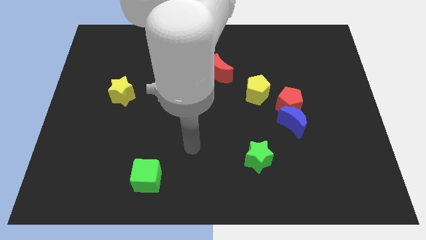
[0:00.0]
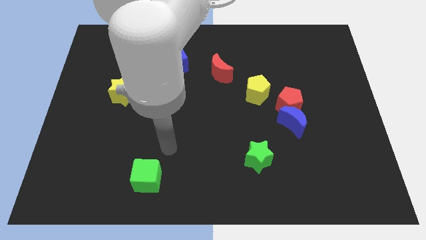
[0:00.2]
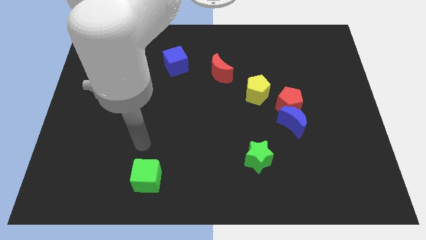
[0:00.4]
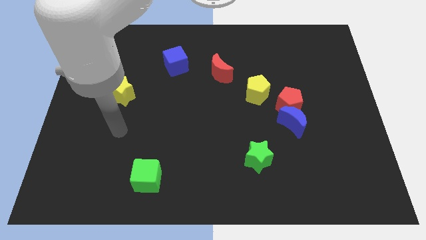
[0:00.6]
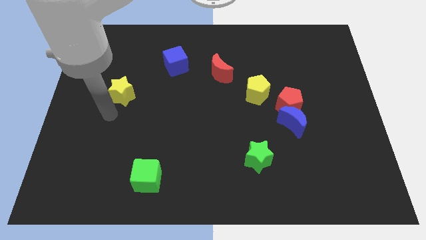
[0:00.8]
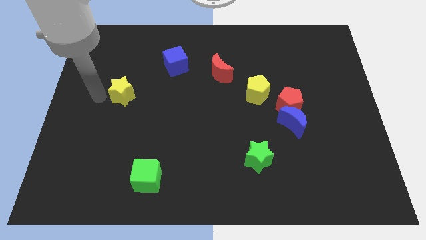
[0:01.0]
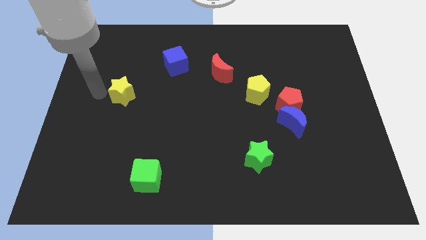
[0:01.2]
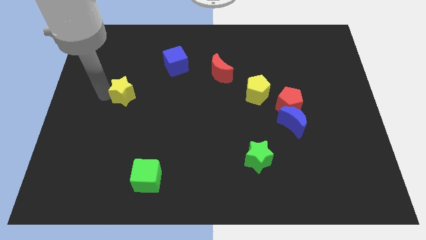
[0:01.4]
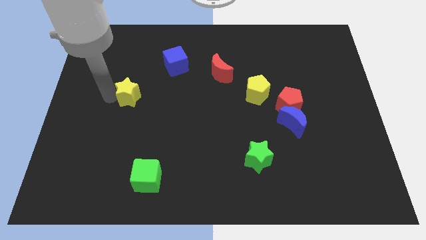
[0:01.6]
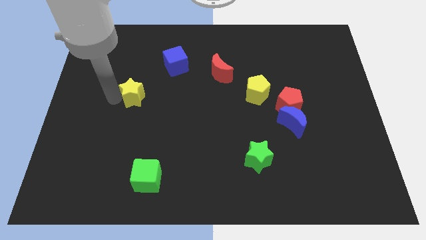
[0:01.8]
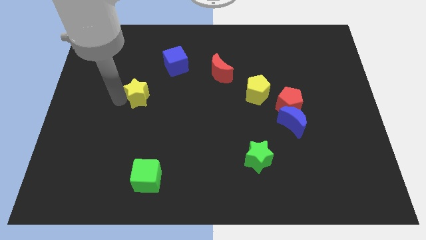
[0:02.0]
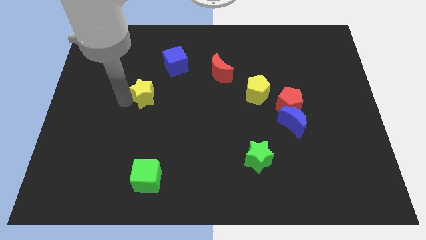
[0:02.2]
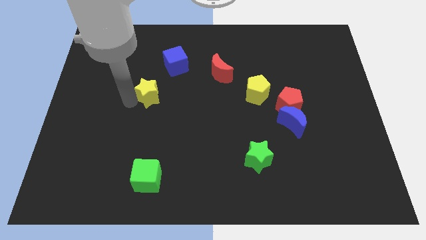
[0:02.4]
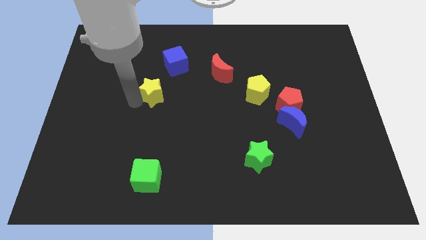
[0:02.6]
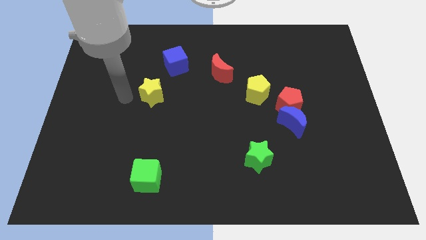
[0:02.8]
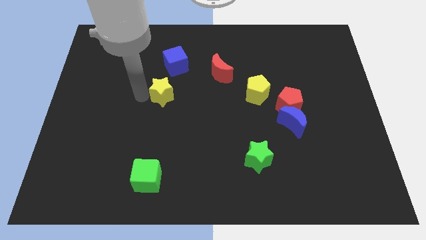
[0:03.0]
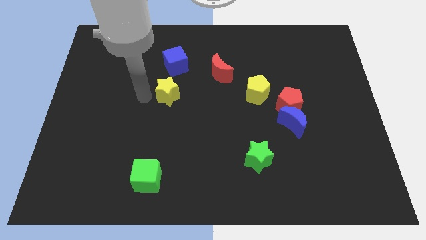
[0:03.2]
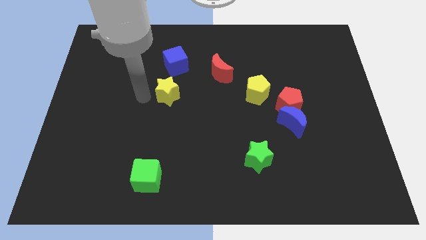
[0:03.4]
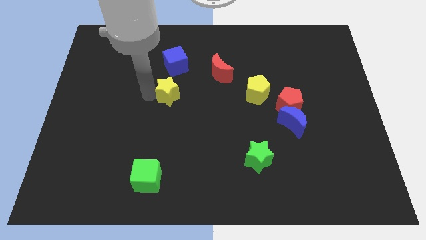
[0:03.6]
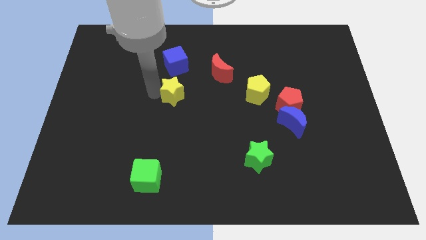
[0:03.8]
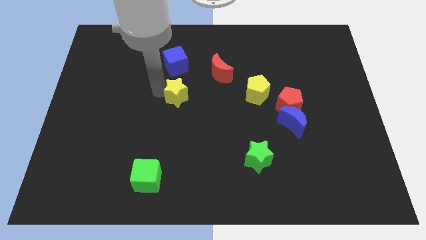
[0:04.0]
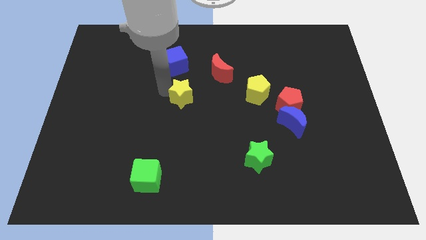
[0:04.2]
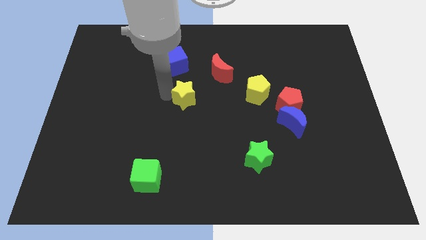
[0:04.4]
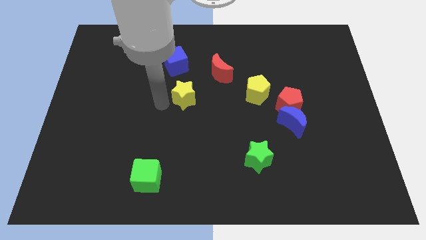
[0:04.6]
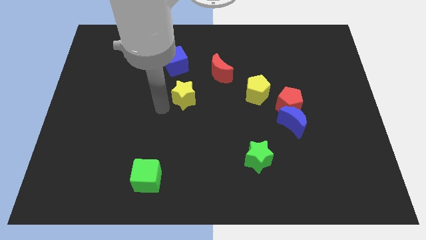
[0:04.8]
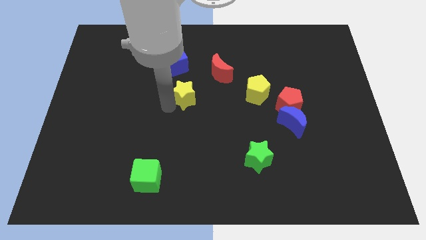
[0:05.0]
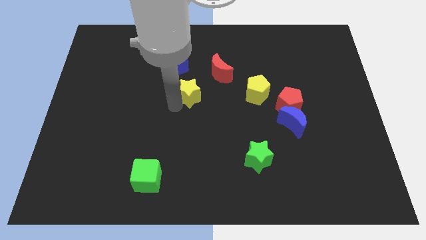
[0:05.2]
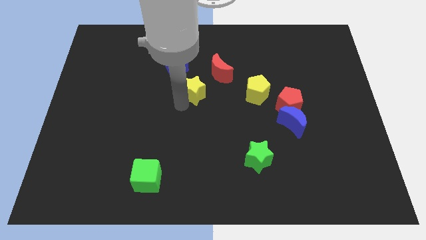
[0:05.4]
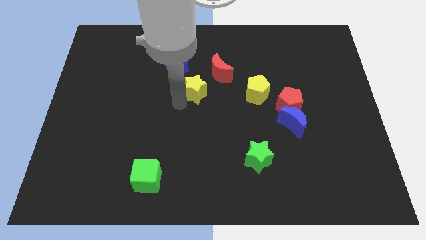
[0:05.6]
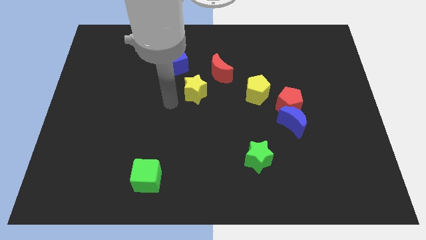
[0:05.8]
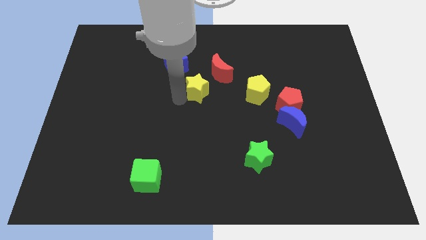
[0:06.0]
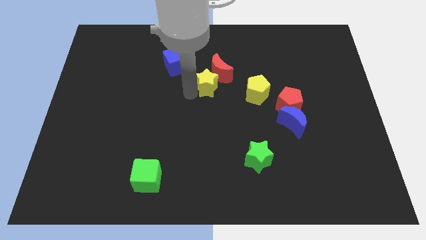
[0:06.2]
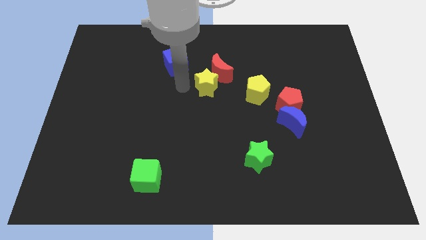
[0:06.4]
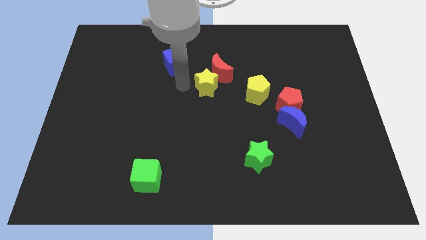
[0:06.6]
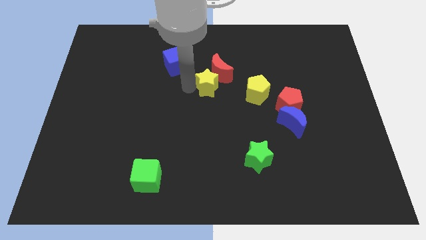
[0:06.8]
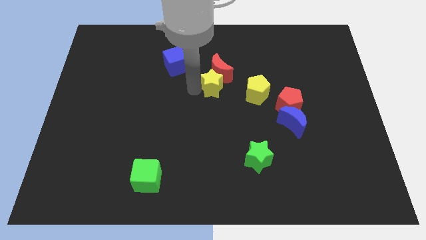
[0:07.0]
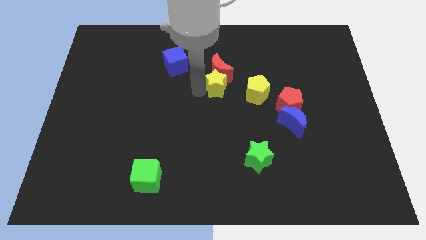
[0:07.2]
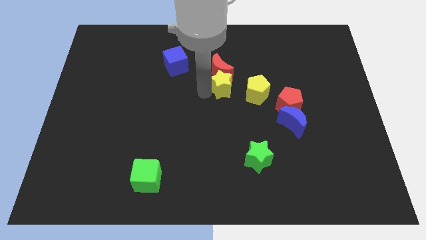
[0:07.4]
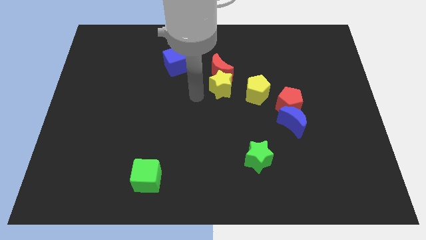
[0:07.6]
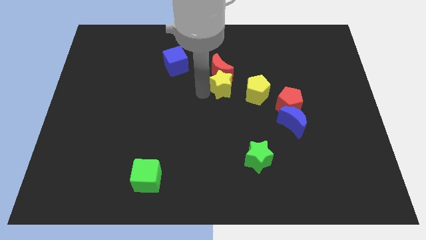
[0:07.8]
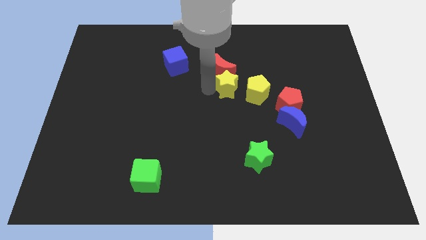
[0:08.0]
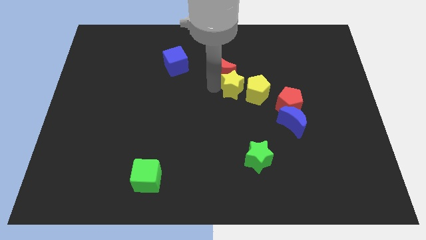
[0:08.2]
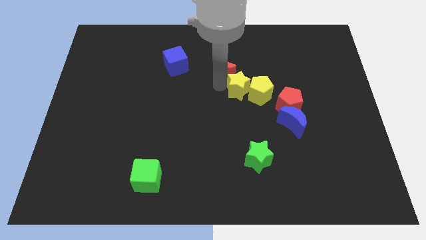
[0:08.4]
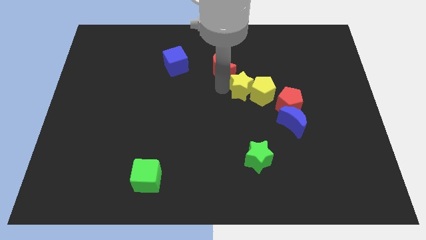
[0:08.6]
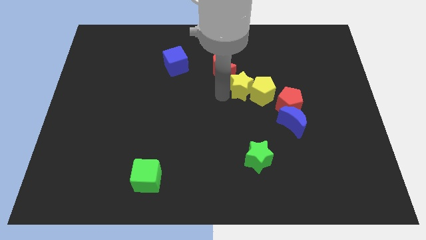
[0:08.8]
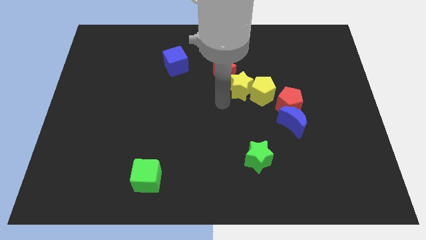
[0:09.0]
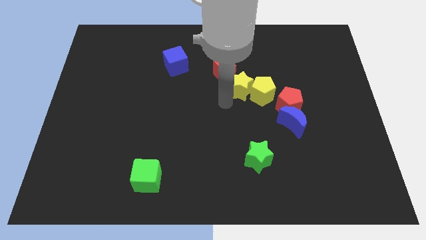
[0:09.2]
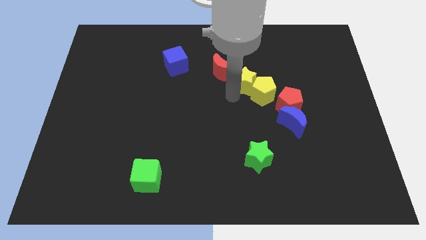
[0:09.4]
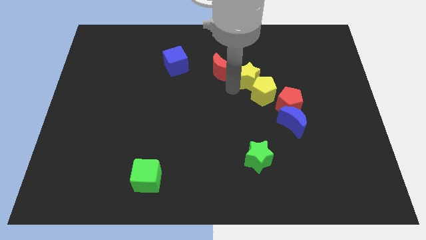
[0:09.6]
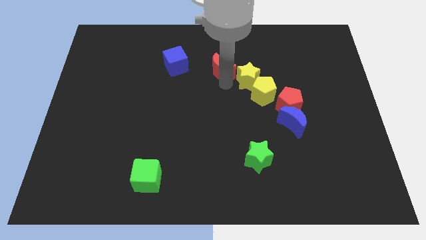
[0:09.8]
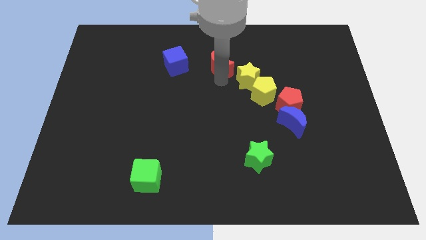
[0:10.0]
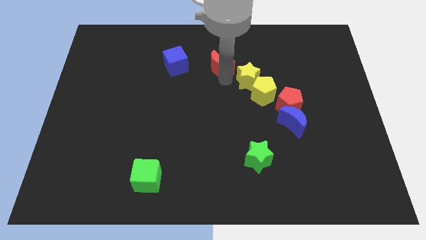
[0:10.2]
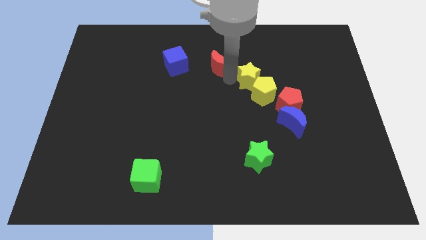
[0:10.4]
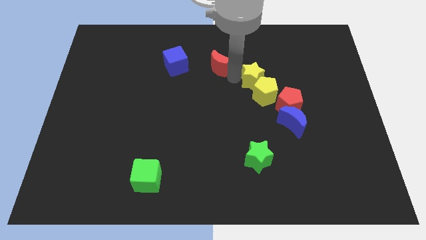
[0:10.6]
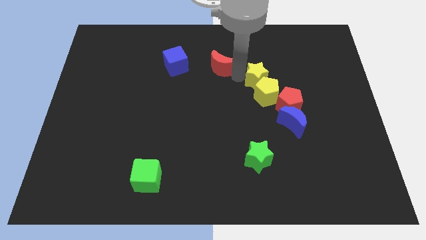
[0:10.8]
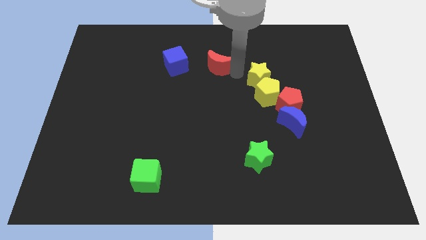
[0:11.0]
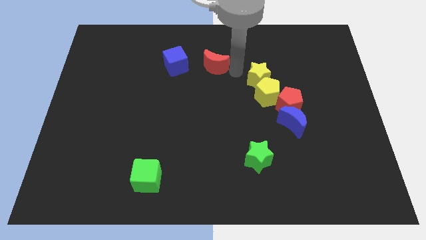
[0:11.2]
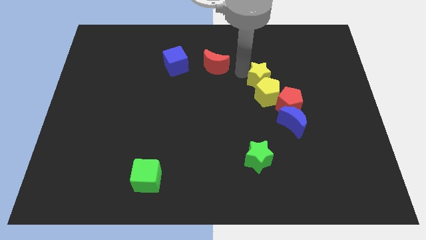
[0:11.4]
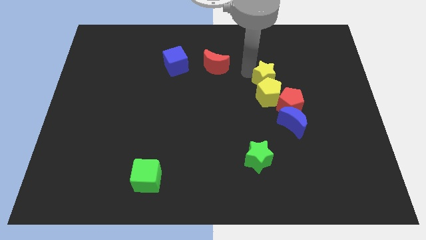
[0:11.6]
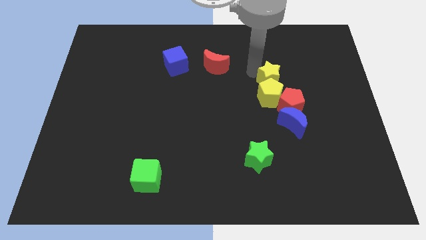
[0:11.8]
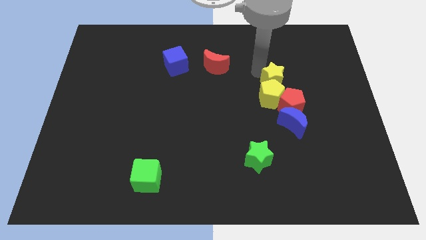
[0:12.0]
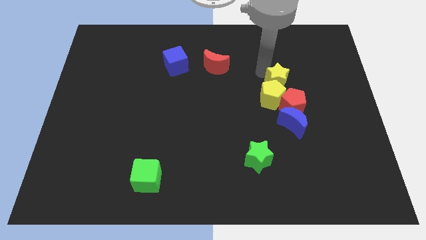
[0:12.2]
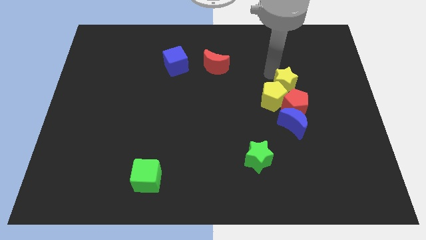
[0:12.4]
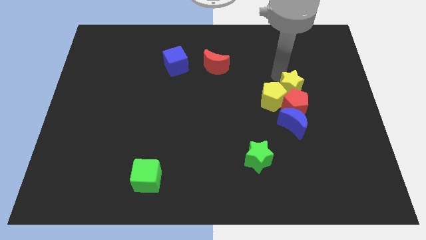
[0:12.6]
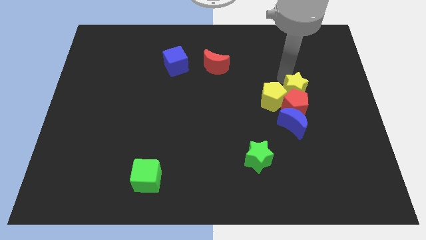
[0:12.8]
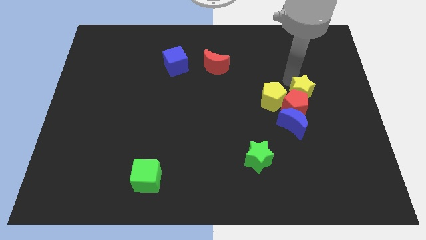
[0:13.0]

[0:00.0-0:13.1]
put the yellow star diagonally up and to the right of the blue moon
